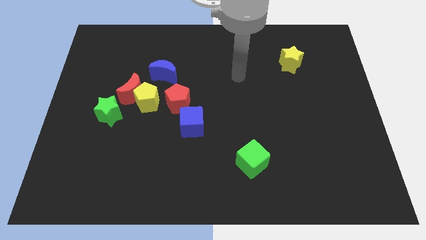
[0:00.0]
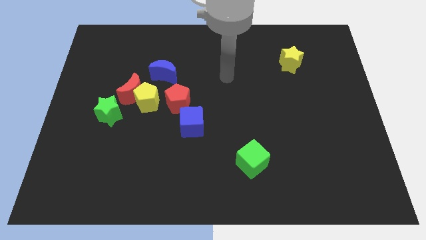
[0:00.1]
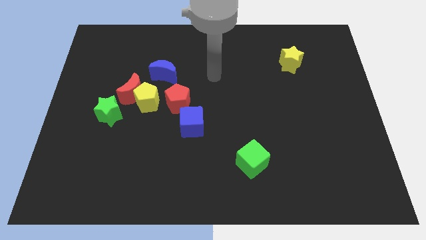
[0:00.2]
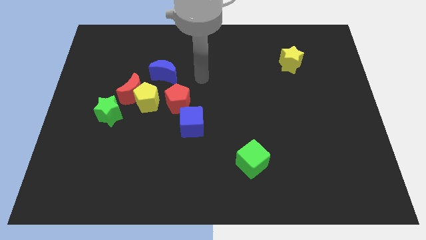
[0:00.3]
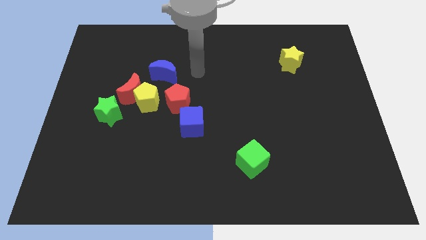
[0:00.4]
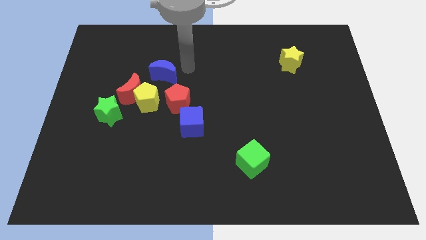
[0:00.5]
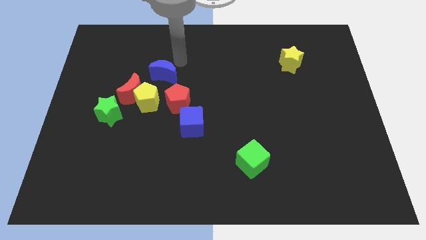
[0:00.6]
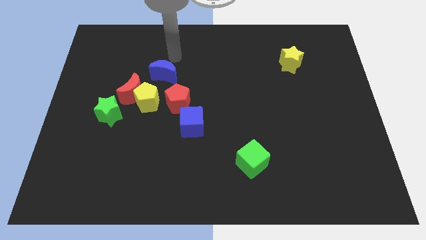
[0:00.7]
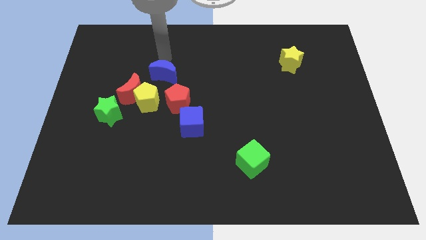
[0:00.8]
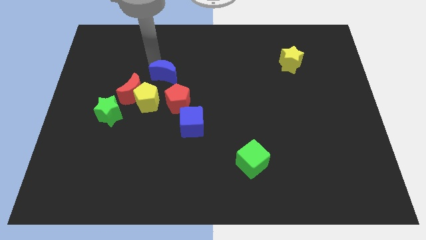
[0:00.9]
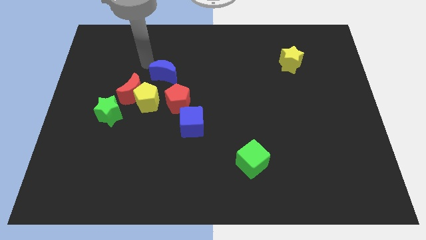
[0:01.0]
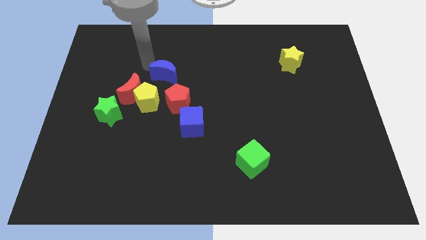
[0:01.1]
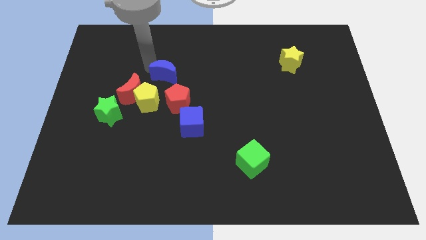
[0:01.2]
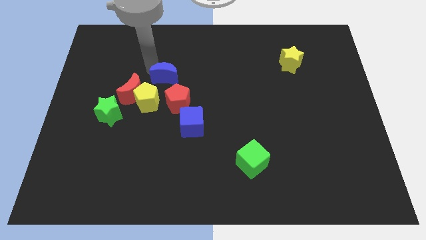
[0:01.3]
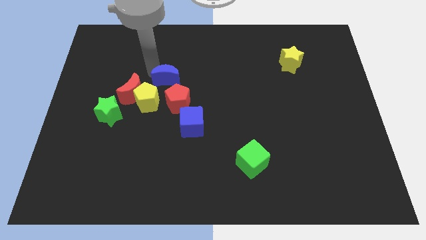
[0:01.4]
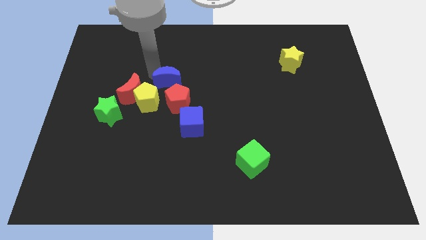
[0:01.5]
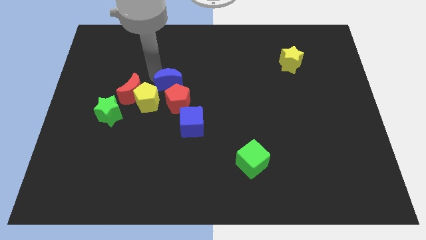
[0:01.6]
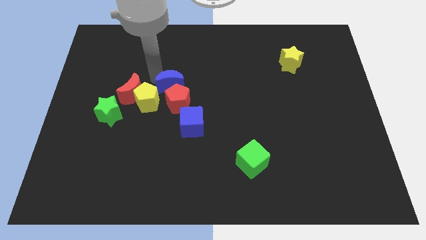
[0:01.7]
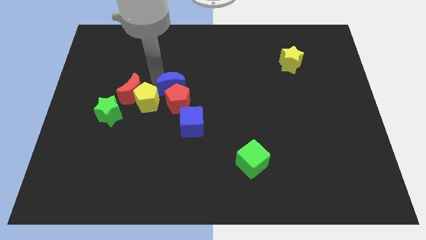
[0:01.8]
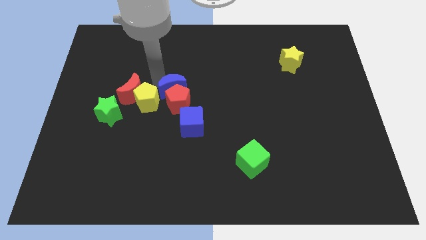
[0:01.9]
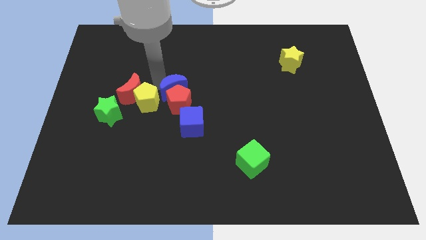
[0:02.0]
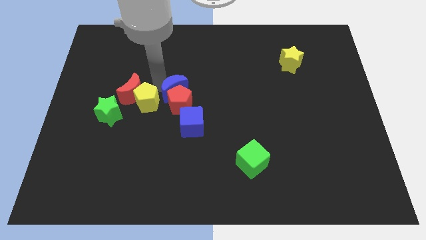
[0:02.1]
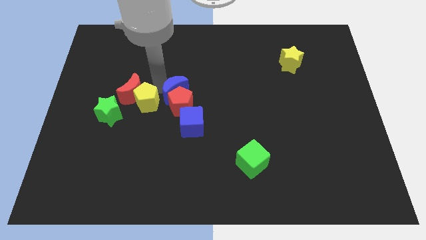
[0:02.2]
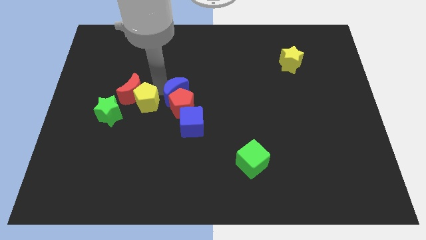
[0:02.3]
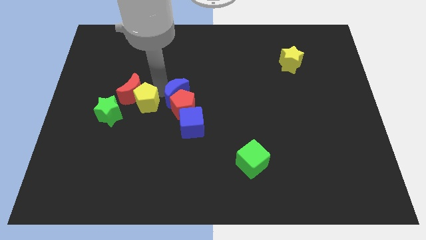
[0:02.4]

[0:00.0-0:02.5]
push the blue moon slightly downwards and then right

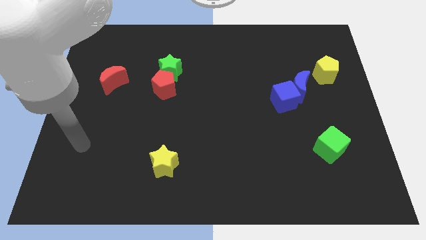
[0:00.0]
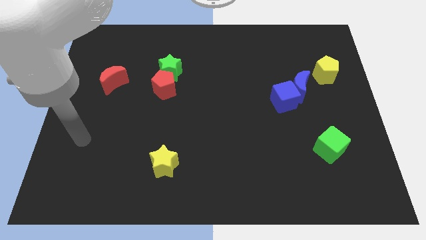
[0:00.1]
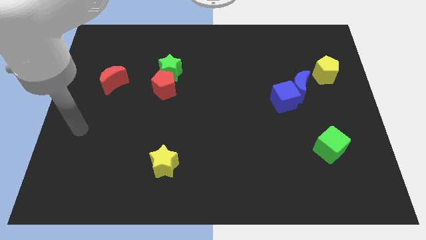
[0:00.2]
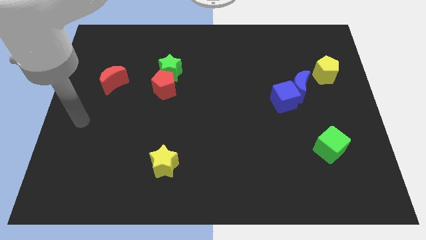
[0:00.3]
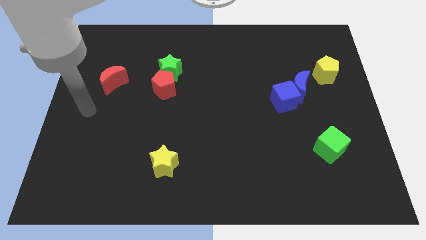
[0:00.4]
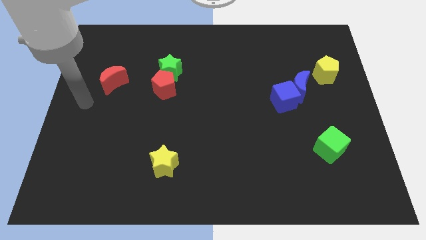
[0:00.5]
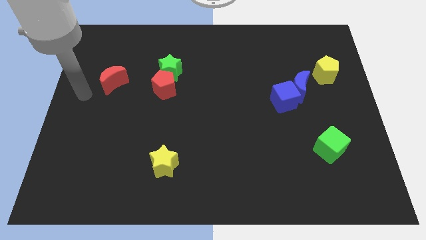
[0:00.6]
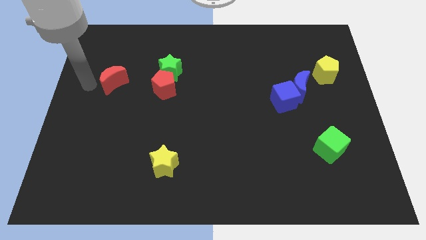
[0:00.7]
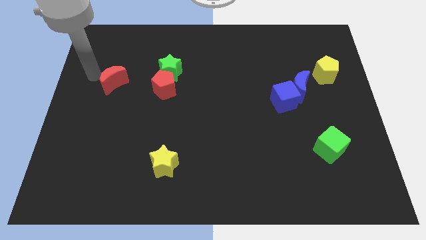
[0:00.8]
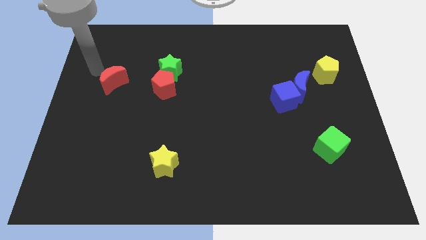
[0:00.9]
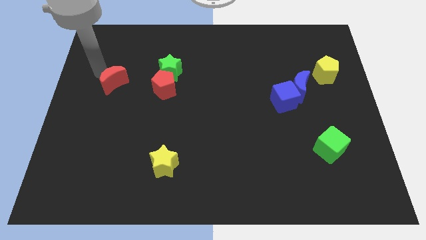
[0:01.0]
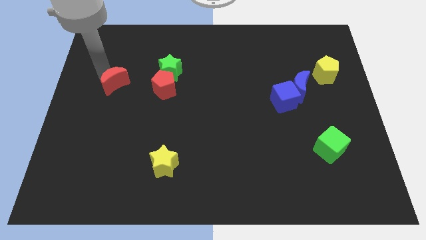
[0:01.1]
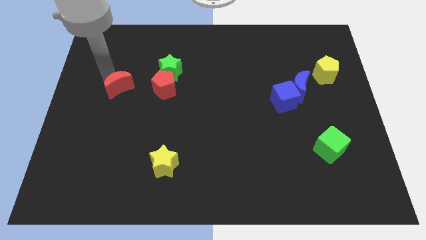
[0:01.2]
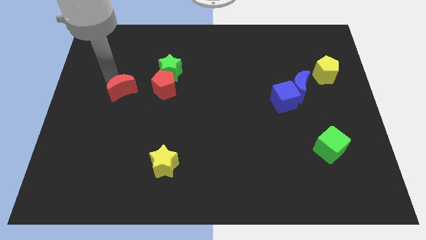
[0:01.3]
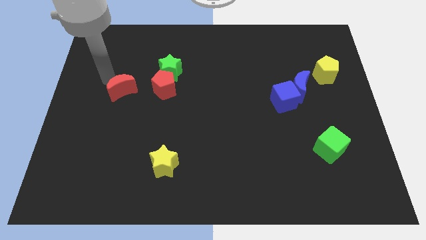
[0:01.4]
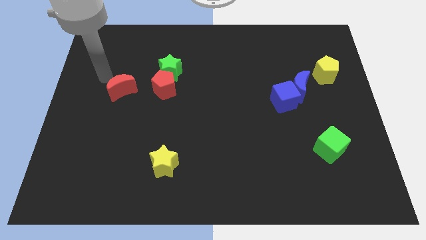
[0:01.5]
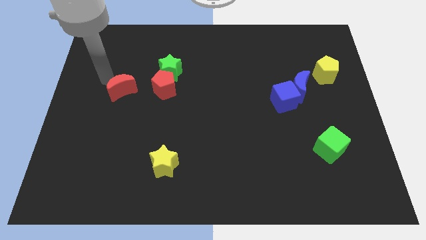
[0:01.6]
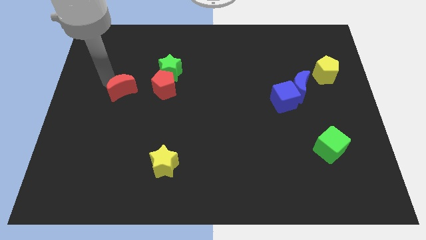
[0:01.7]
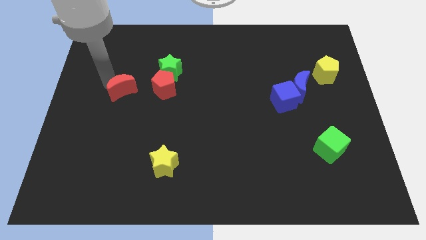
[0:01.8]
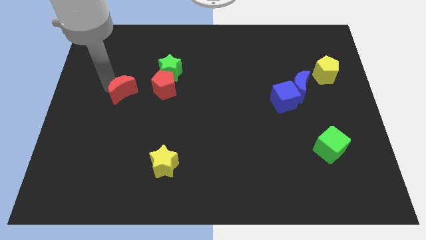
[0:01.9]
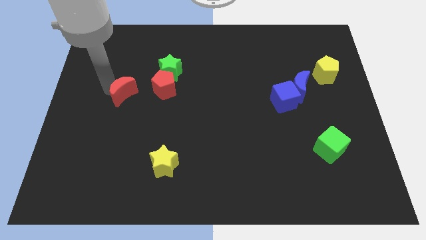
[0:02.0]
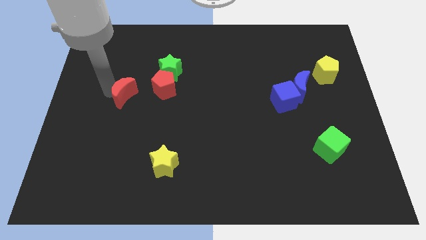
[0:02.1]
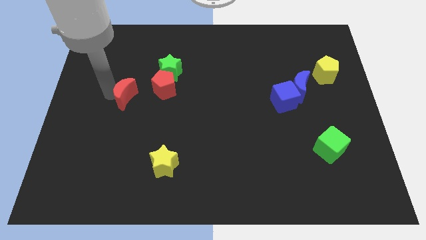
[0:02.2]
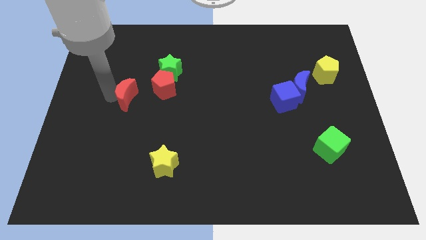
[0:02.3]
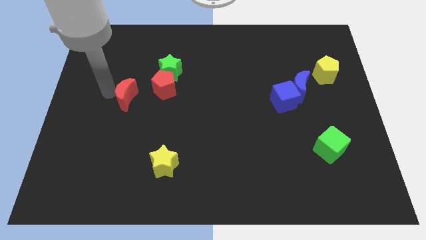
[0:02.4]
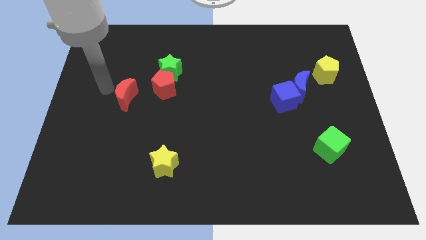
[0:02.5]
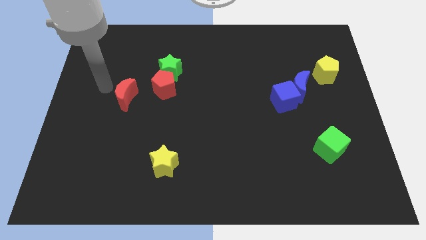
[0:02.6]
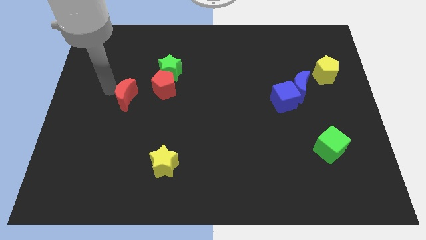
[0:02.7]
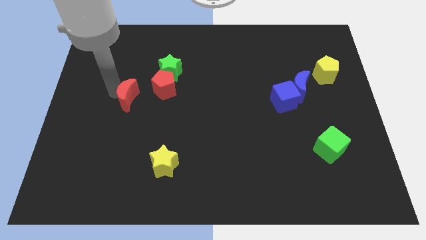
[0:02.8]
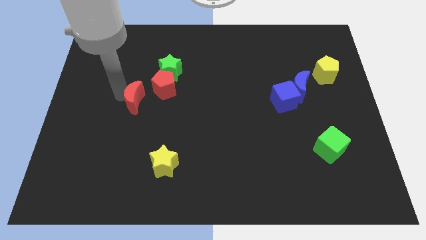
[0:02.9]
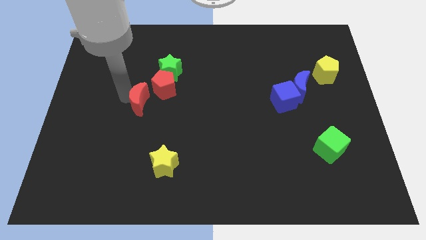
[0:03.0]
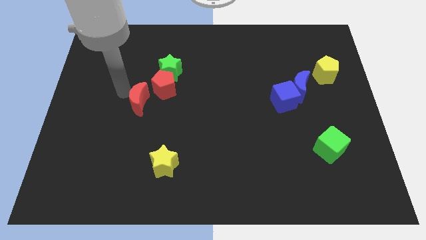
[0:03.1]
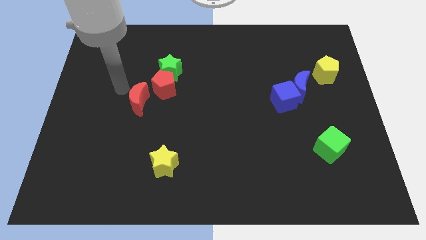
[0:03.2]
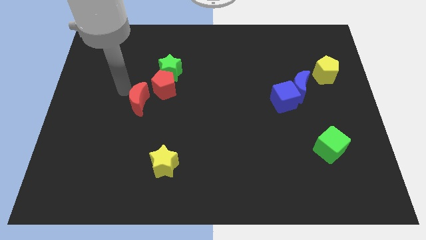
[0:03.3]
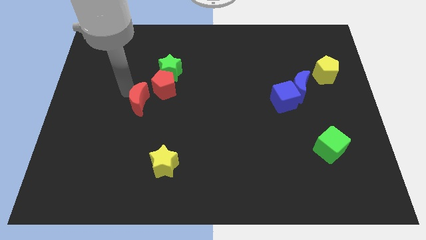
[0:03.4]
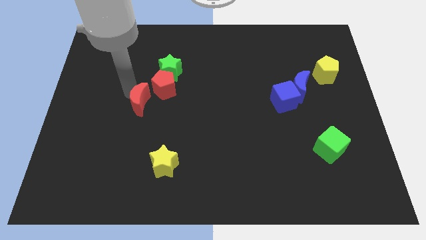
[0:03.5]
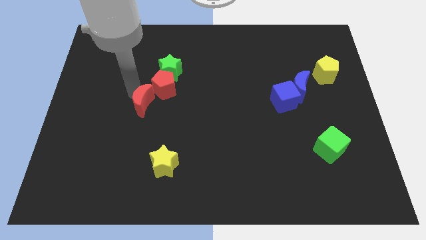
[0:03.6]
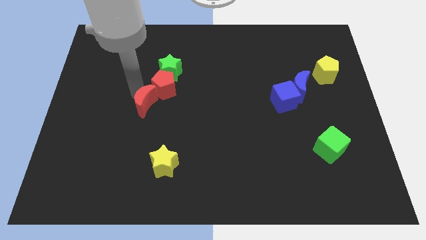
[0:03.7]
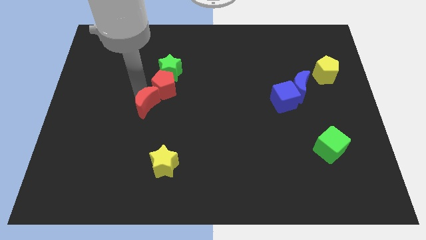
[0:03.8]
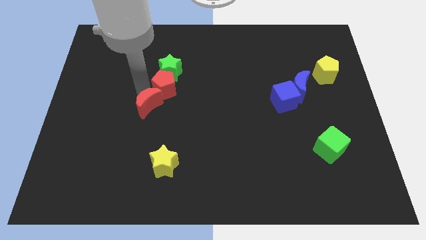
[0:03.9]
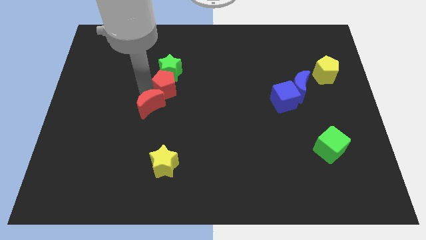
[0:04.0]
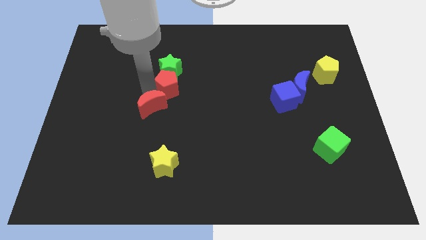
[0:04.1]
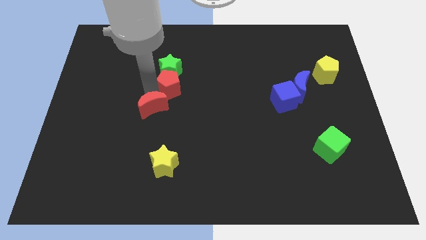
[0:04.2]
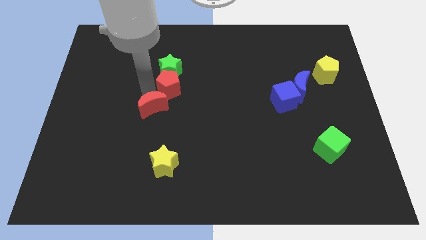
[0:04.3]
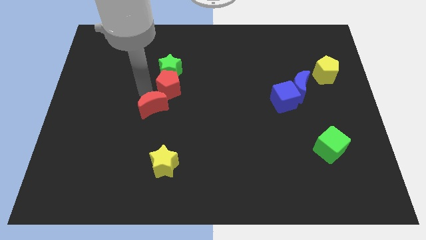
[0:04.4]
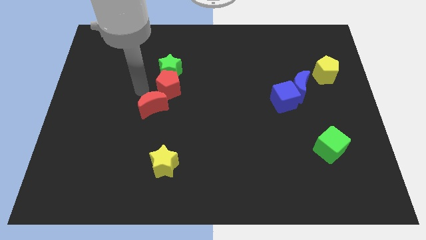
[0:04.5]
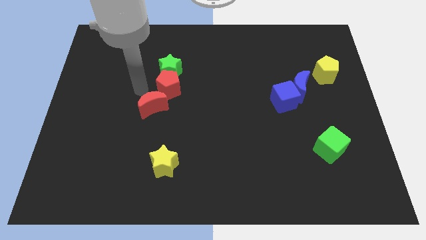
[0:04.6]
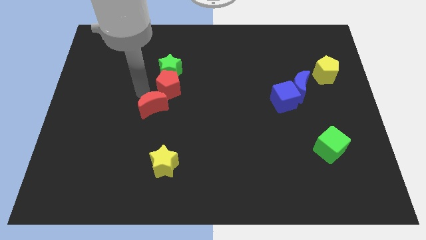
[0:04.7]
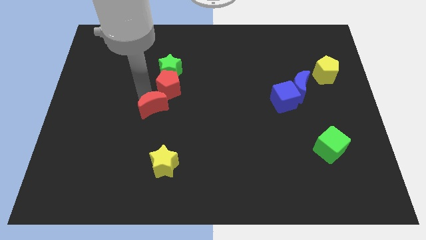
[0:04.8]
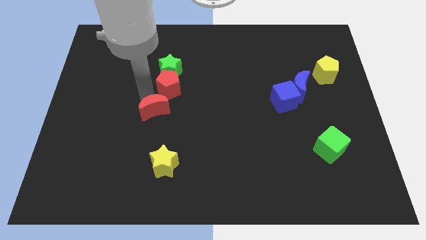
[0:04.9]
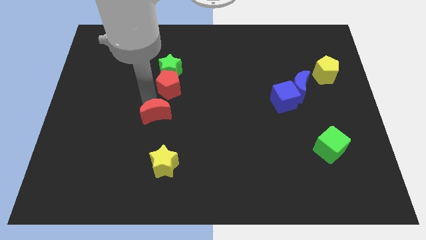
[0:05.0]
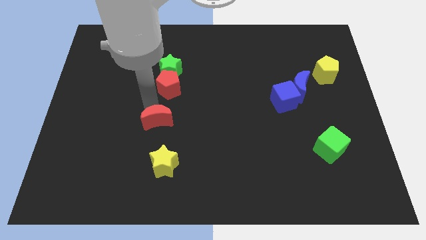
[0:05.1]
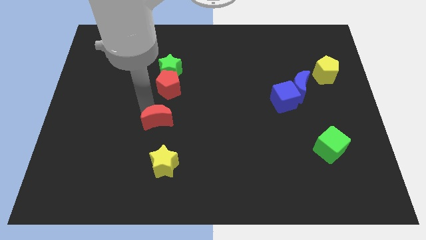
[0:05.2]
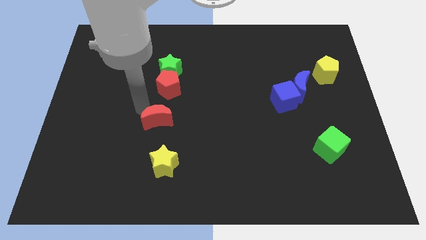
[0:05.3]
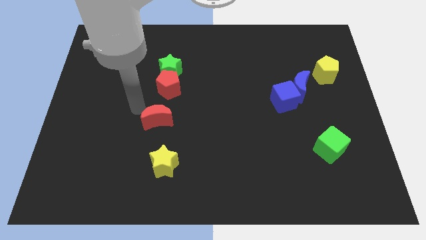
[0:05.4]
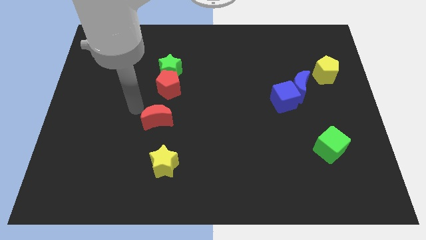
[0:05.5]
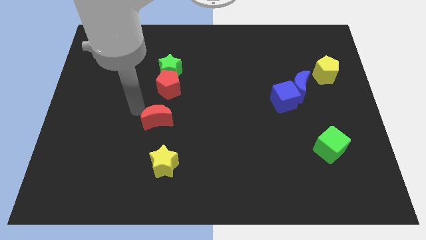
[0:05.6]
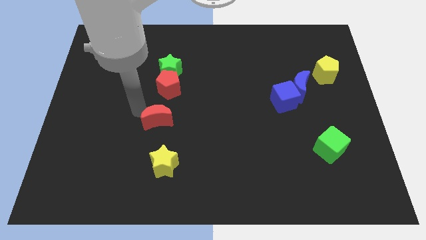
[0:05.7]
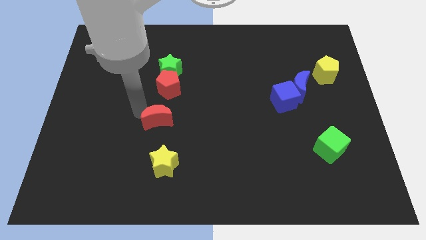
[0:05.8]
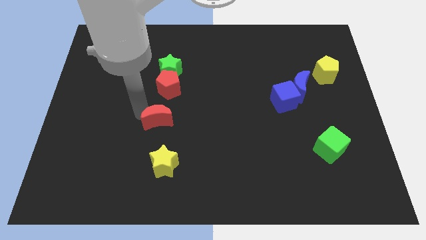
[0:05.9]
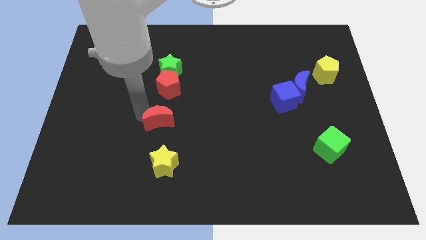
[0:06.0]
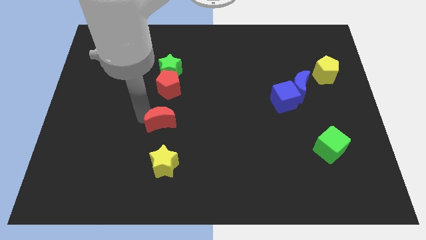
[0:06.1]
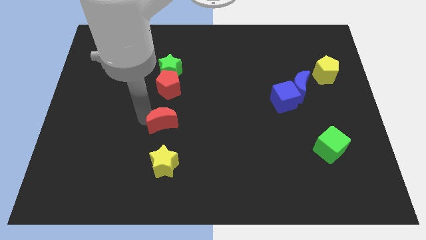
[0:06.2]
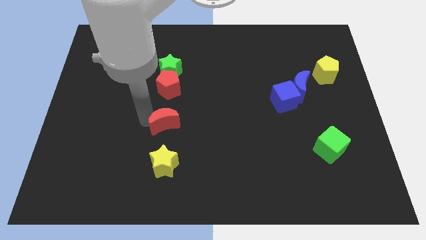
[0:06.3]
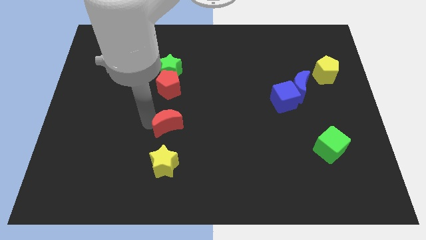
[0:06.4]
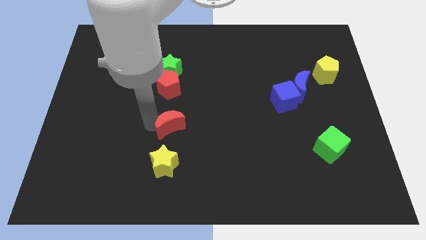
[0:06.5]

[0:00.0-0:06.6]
push the red moon diagonally downwards and right
